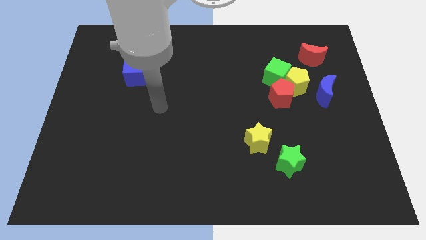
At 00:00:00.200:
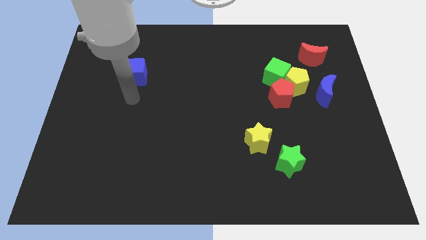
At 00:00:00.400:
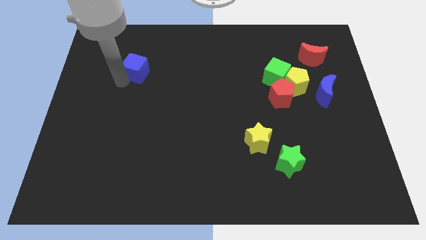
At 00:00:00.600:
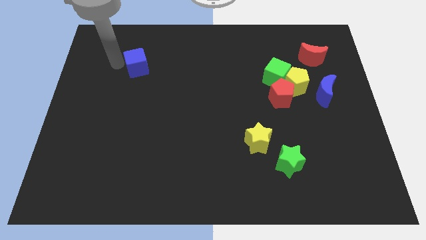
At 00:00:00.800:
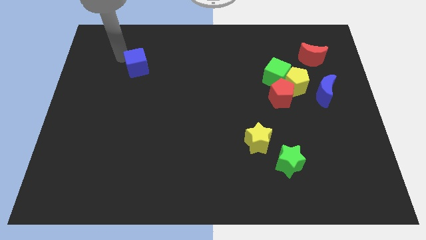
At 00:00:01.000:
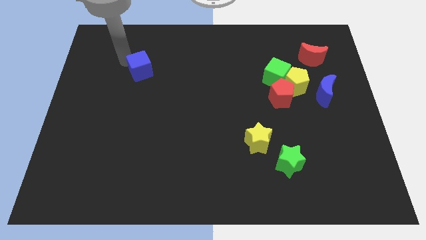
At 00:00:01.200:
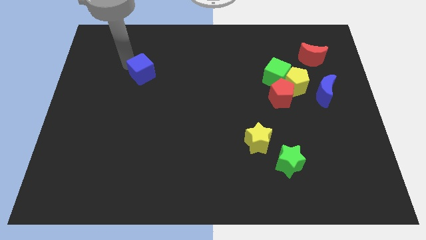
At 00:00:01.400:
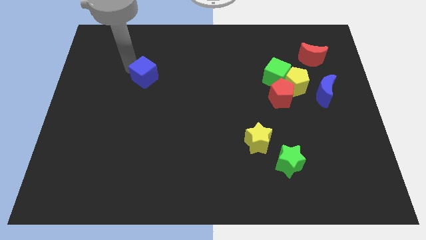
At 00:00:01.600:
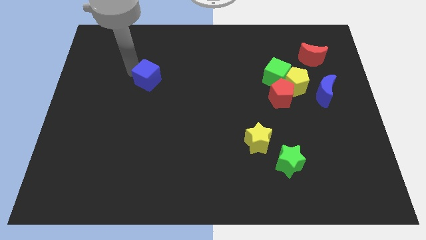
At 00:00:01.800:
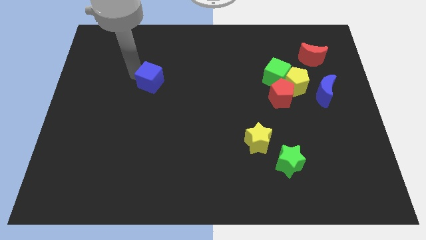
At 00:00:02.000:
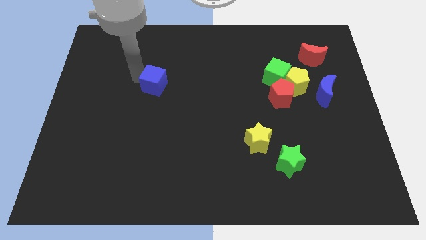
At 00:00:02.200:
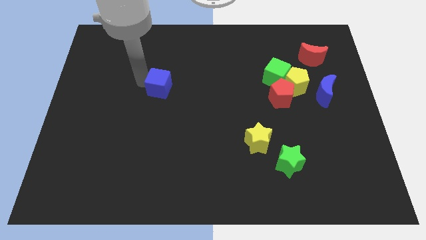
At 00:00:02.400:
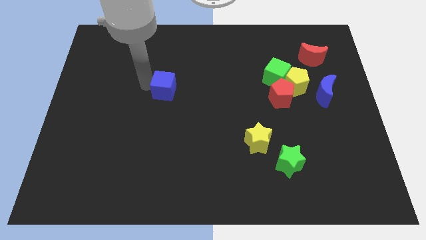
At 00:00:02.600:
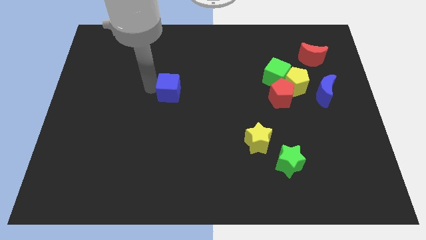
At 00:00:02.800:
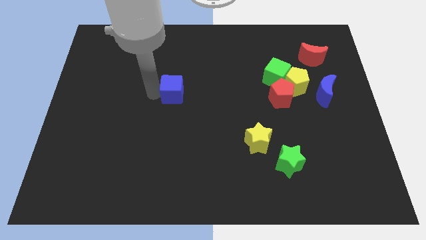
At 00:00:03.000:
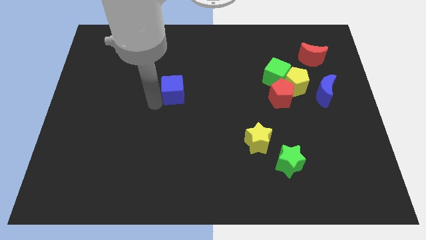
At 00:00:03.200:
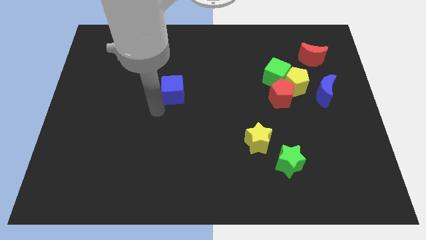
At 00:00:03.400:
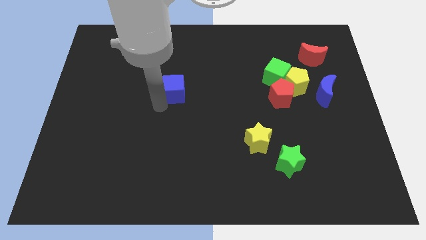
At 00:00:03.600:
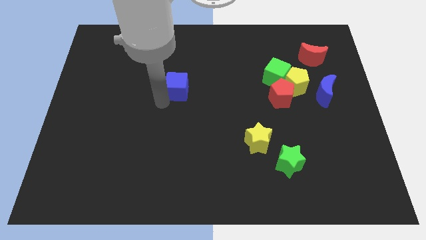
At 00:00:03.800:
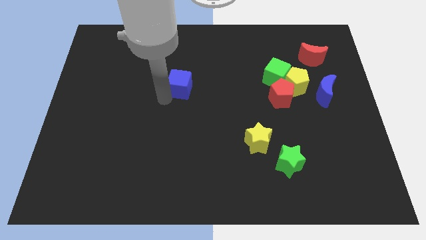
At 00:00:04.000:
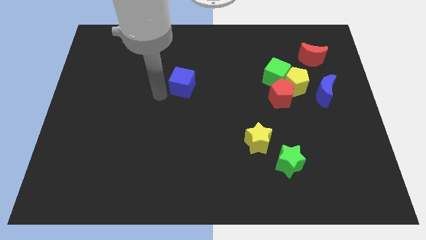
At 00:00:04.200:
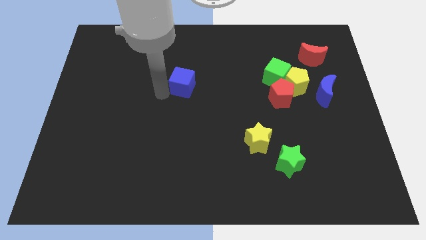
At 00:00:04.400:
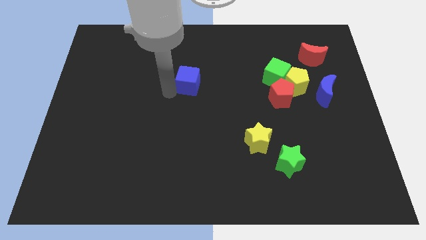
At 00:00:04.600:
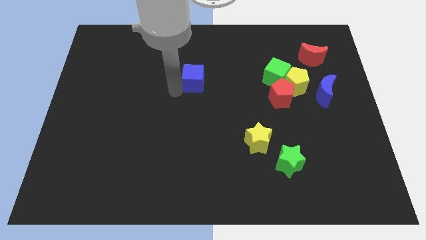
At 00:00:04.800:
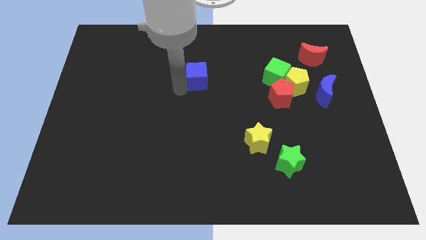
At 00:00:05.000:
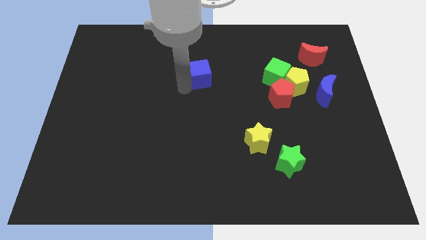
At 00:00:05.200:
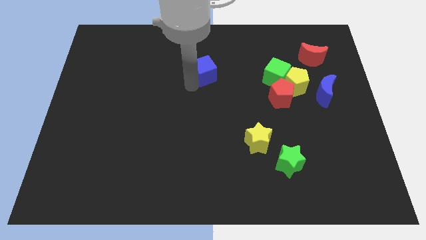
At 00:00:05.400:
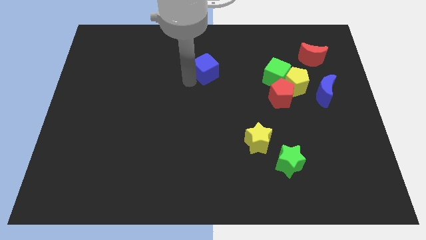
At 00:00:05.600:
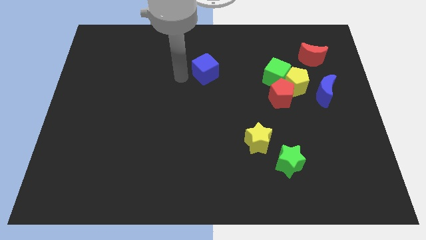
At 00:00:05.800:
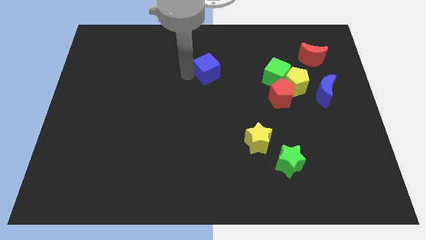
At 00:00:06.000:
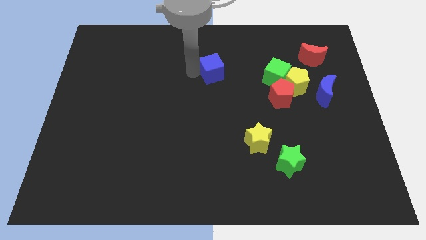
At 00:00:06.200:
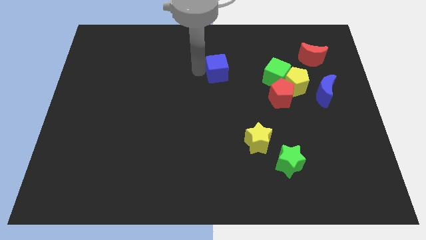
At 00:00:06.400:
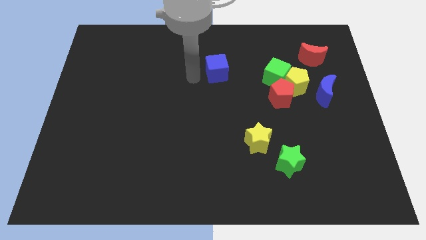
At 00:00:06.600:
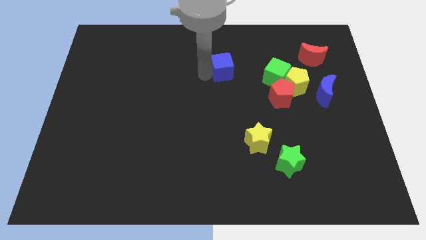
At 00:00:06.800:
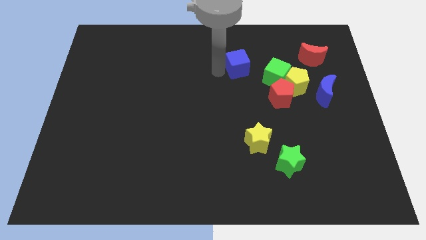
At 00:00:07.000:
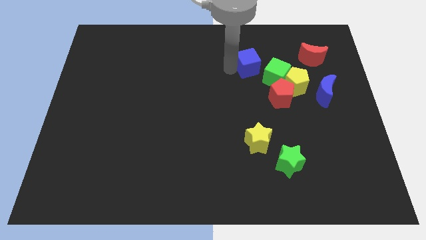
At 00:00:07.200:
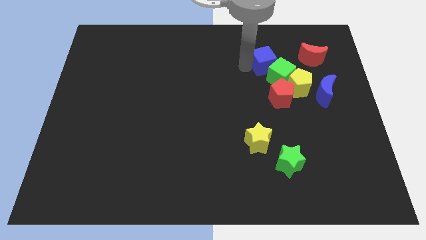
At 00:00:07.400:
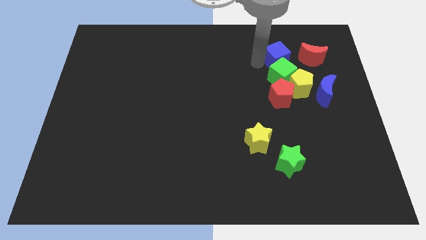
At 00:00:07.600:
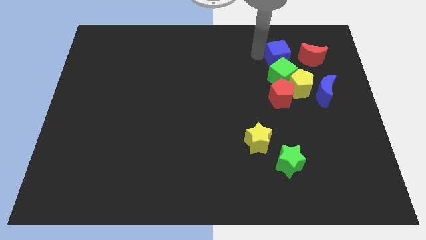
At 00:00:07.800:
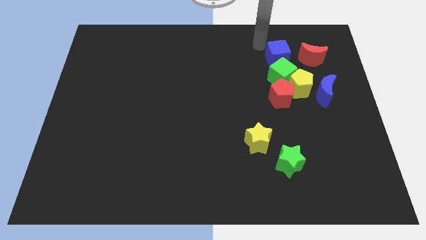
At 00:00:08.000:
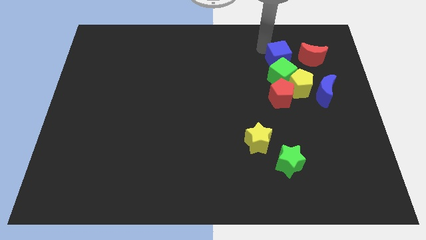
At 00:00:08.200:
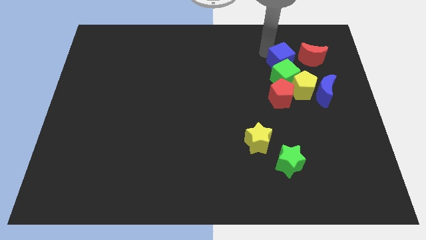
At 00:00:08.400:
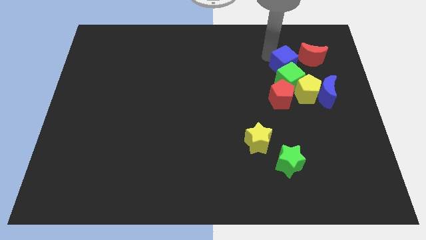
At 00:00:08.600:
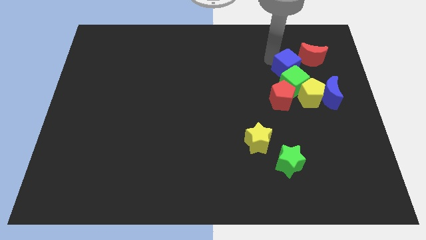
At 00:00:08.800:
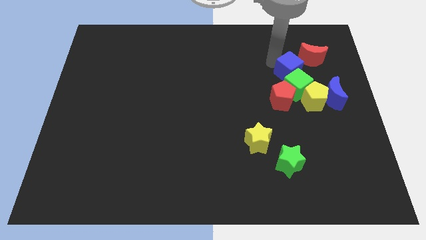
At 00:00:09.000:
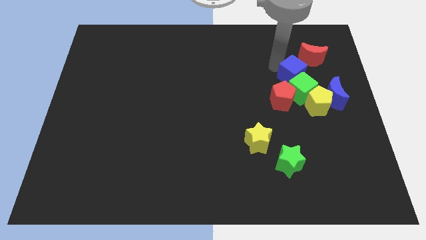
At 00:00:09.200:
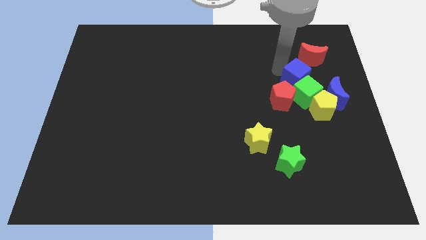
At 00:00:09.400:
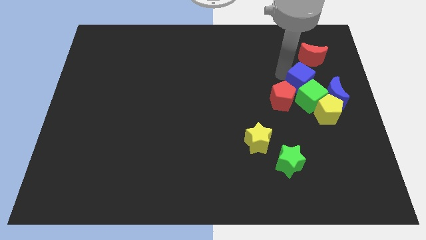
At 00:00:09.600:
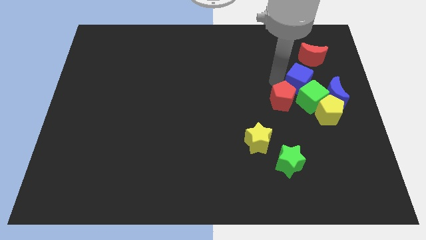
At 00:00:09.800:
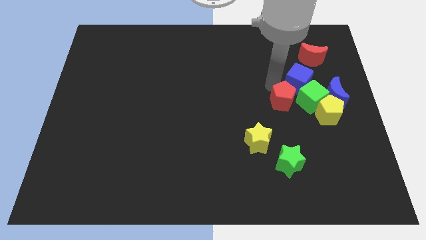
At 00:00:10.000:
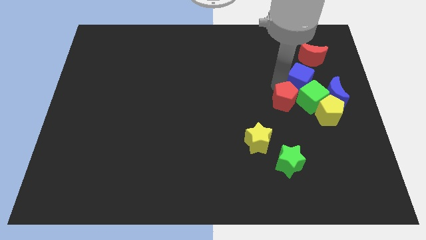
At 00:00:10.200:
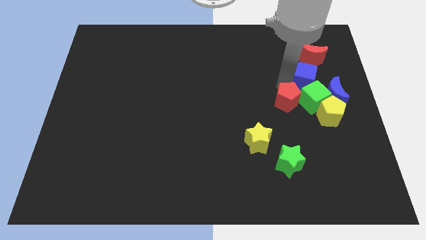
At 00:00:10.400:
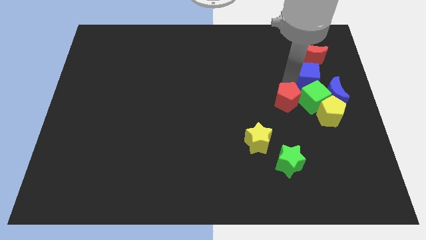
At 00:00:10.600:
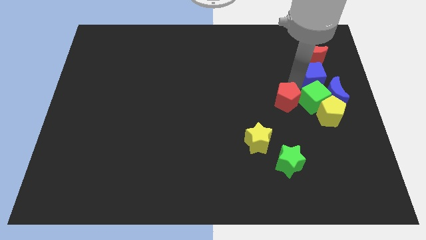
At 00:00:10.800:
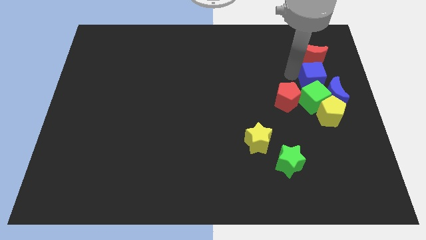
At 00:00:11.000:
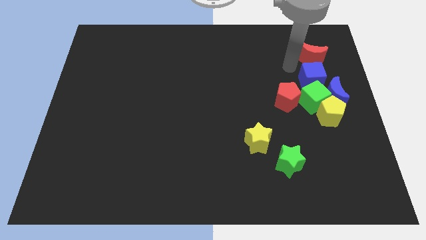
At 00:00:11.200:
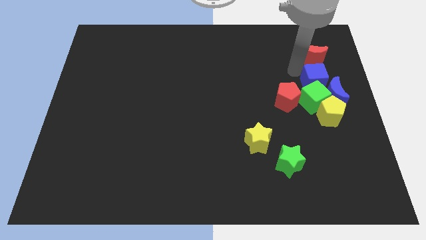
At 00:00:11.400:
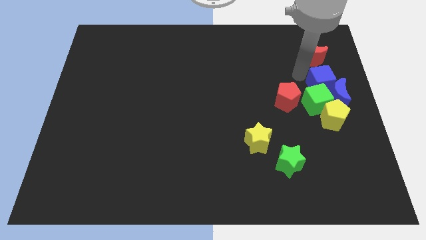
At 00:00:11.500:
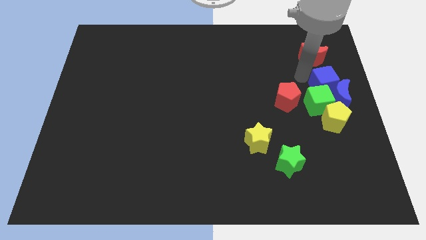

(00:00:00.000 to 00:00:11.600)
put the blue cube right of the red pentagon

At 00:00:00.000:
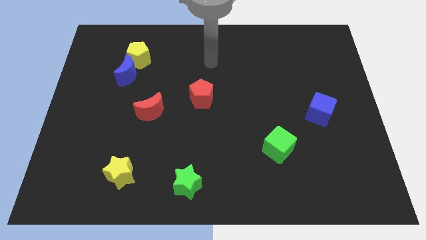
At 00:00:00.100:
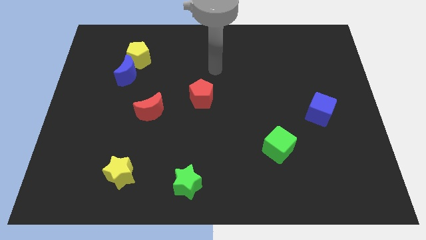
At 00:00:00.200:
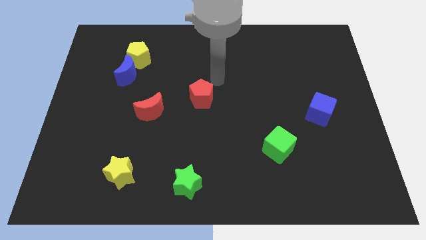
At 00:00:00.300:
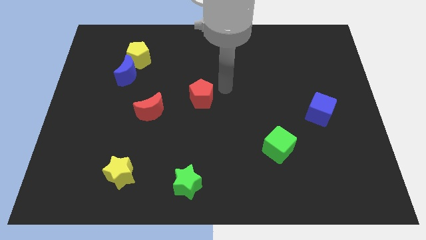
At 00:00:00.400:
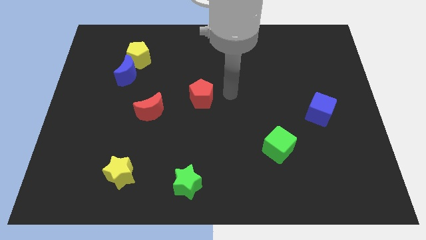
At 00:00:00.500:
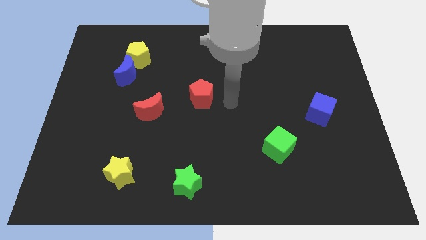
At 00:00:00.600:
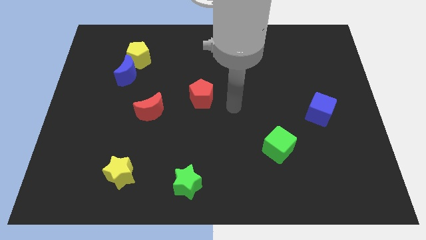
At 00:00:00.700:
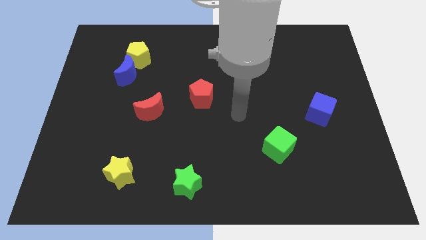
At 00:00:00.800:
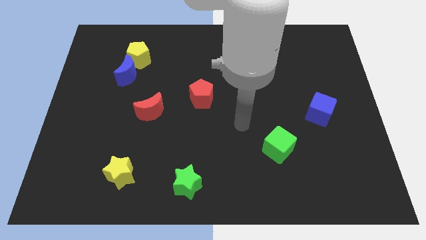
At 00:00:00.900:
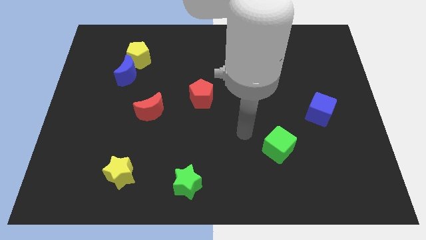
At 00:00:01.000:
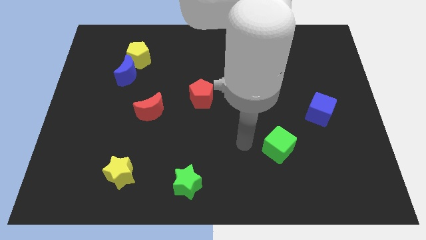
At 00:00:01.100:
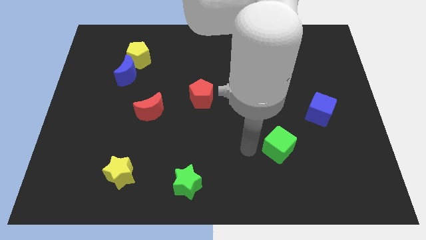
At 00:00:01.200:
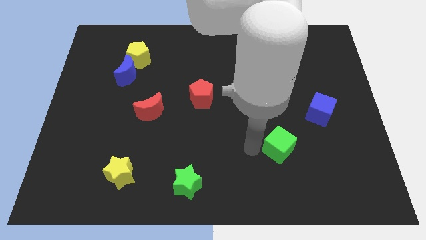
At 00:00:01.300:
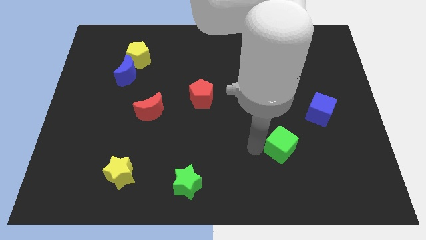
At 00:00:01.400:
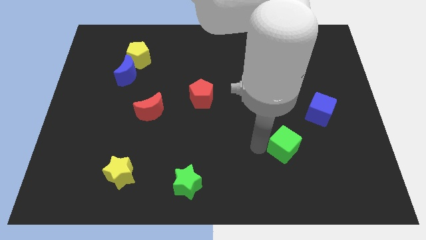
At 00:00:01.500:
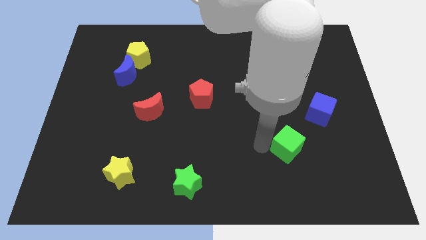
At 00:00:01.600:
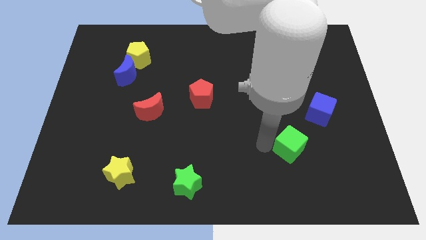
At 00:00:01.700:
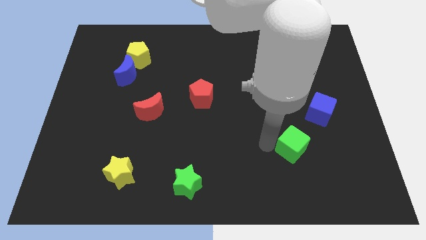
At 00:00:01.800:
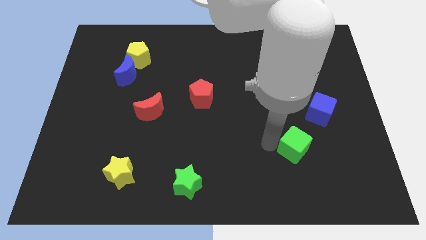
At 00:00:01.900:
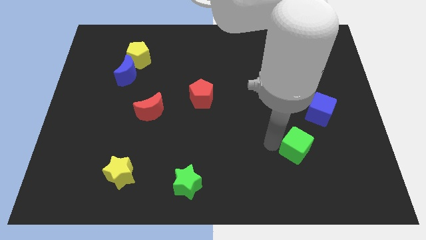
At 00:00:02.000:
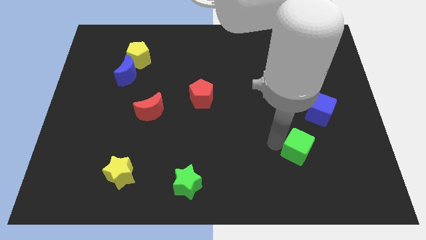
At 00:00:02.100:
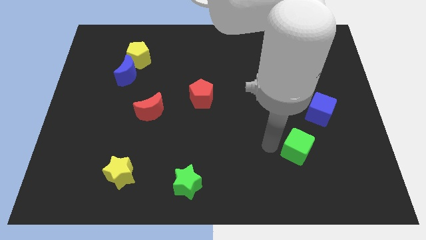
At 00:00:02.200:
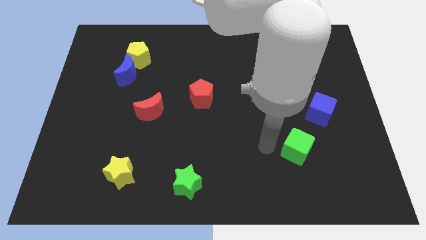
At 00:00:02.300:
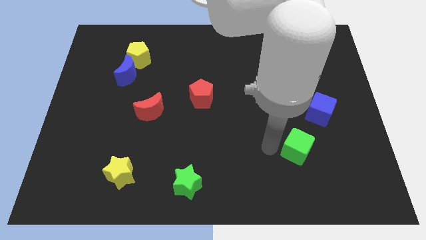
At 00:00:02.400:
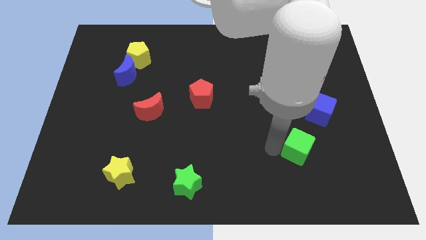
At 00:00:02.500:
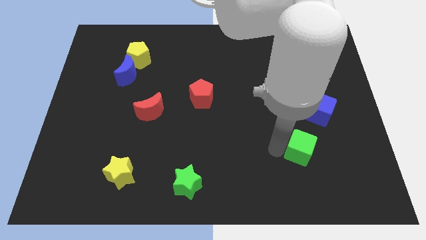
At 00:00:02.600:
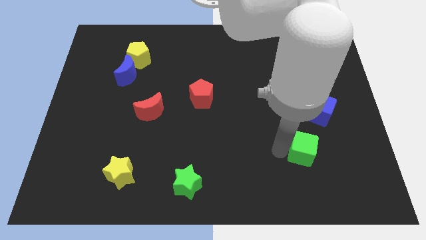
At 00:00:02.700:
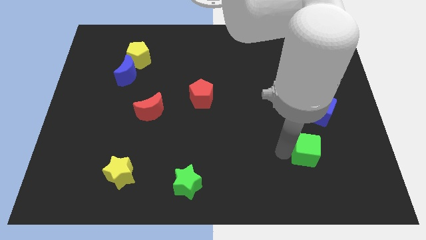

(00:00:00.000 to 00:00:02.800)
put the green cube below the blue cube
